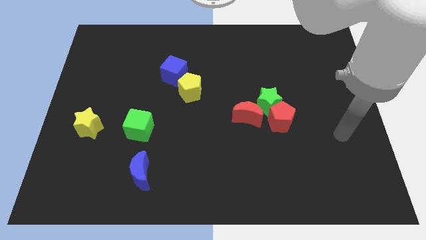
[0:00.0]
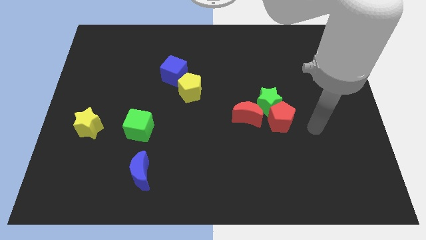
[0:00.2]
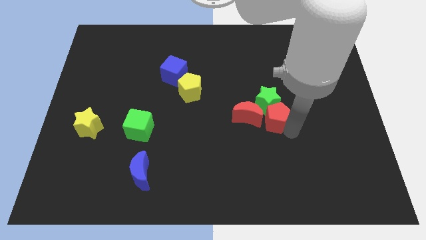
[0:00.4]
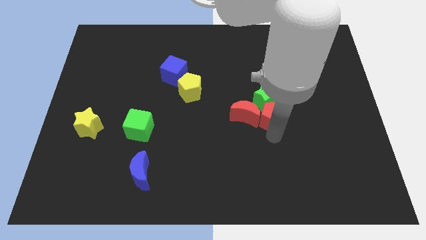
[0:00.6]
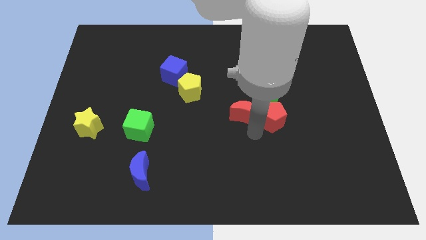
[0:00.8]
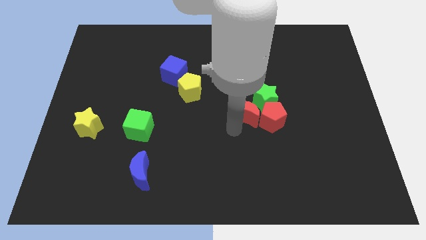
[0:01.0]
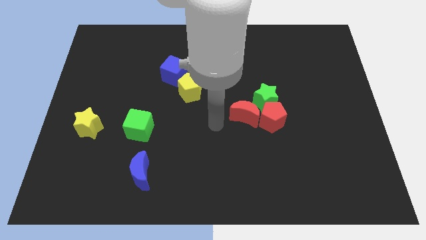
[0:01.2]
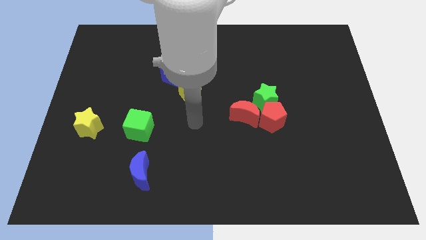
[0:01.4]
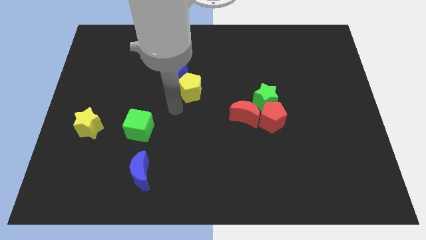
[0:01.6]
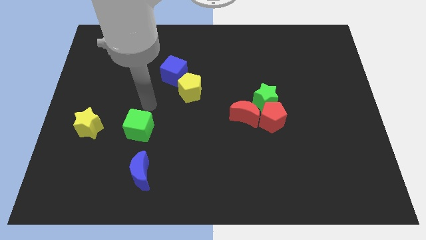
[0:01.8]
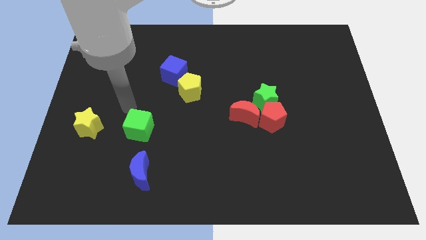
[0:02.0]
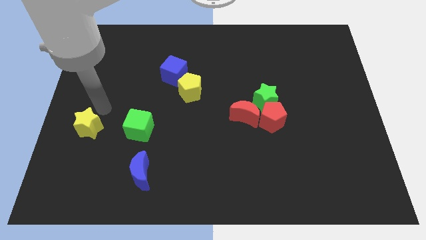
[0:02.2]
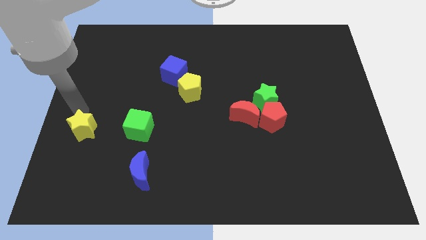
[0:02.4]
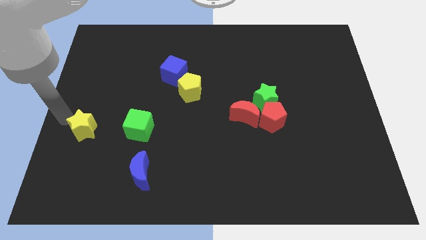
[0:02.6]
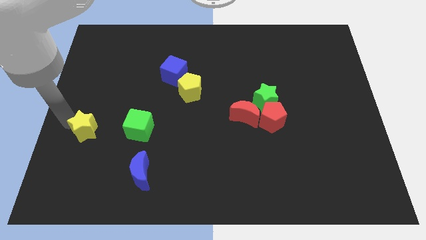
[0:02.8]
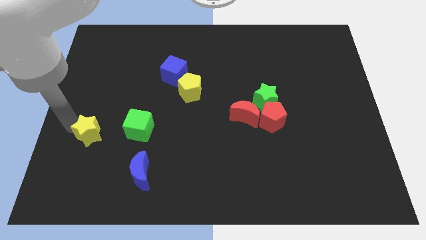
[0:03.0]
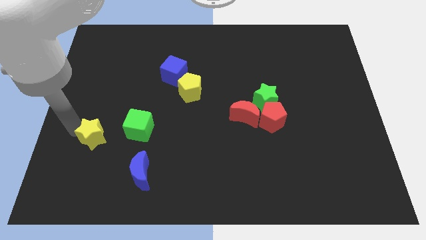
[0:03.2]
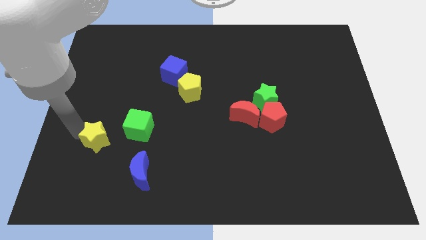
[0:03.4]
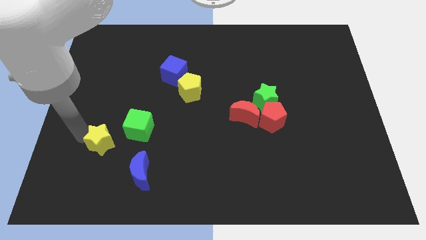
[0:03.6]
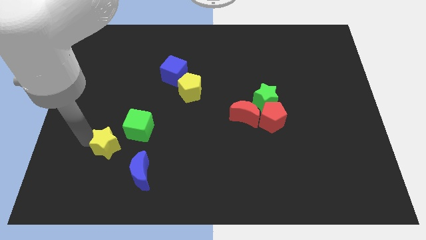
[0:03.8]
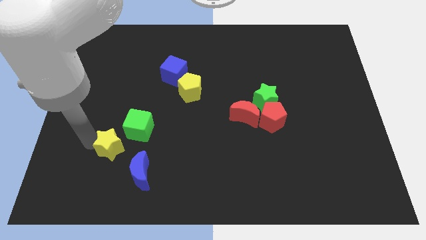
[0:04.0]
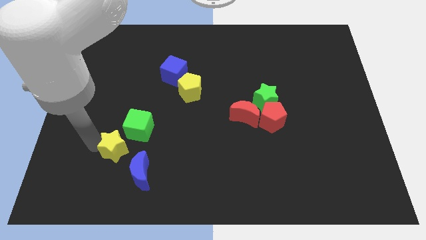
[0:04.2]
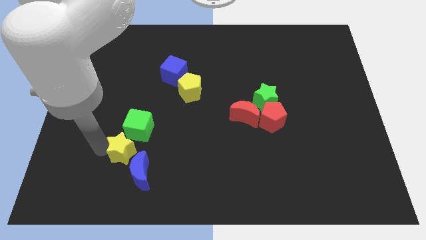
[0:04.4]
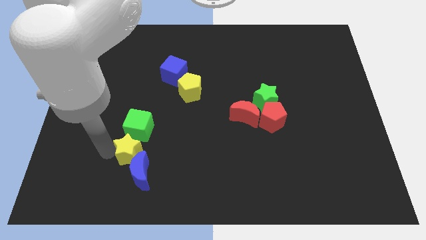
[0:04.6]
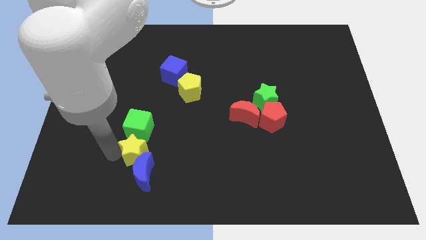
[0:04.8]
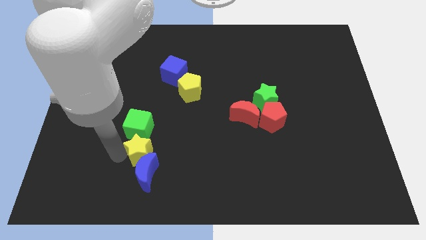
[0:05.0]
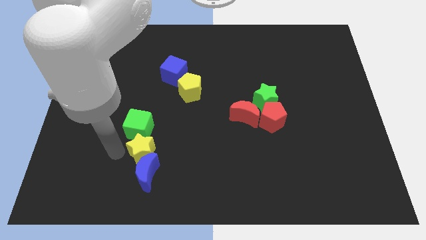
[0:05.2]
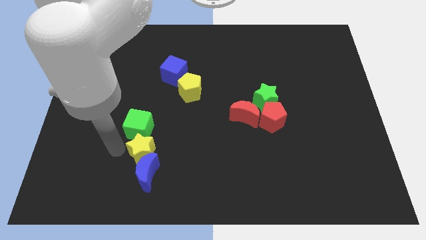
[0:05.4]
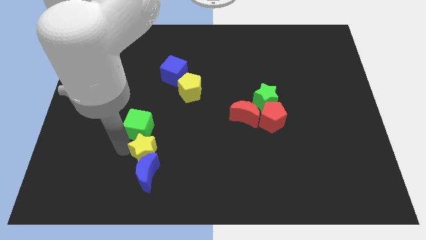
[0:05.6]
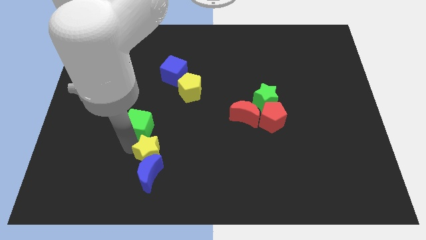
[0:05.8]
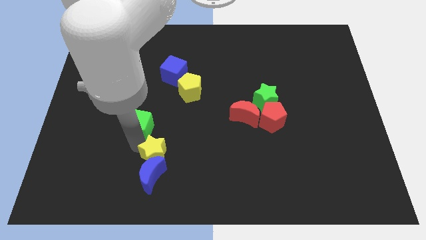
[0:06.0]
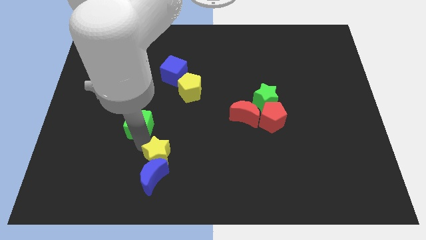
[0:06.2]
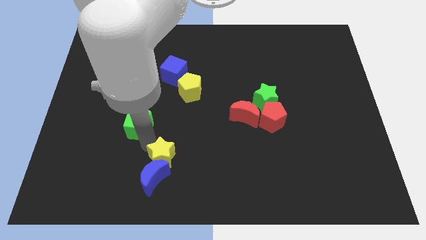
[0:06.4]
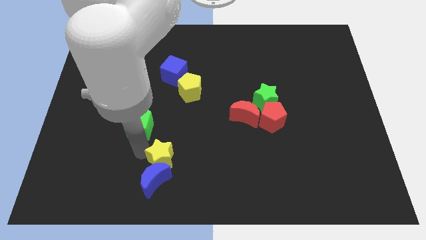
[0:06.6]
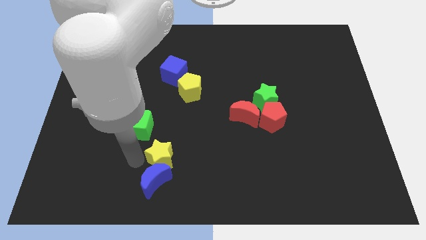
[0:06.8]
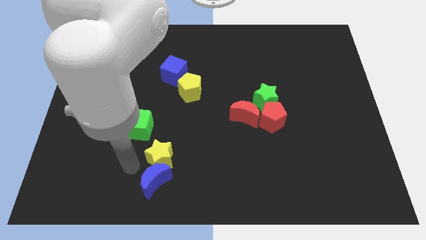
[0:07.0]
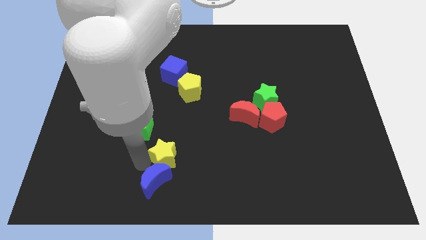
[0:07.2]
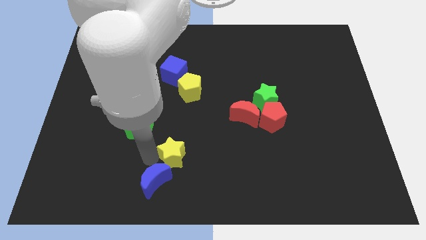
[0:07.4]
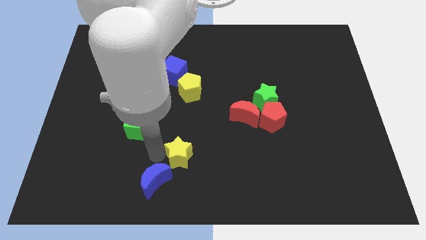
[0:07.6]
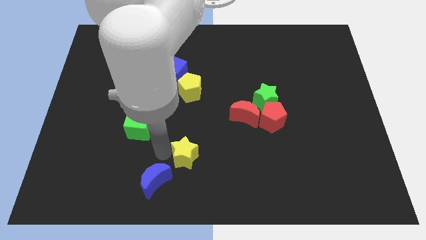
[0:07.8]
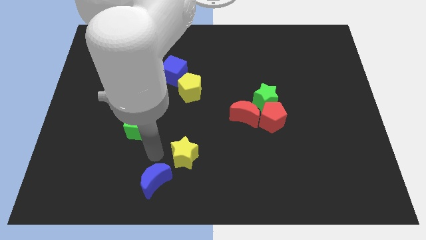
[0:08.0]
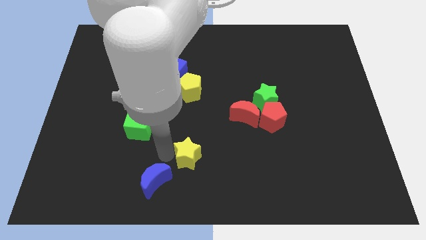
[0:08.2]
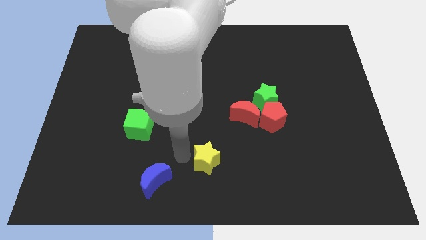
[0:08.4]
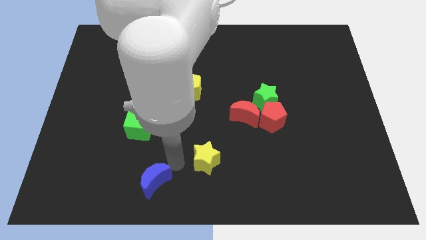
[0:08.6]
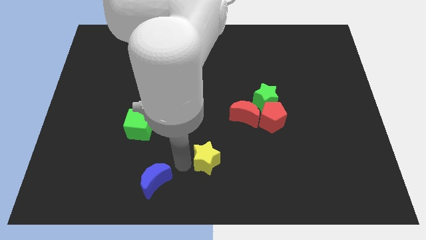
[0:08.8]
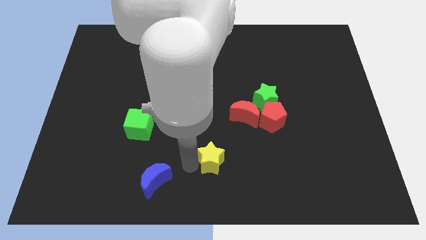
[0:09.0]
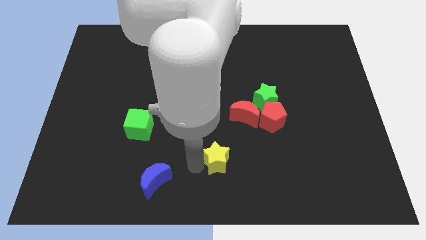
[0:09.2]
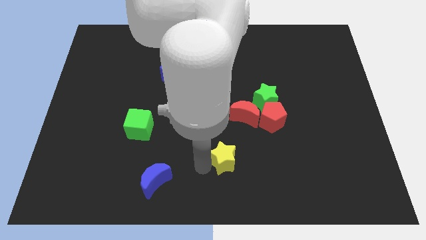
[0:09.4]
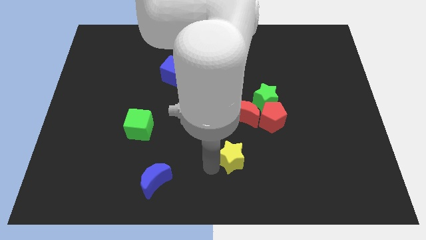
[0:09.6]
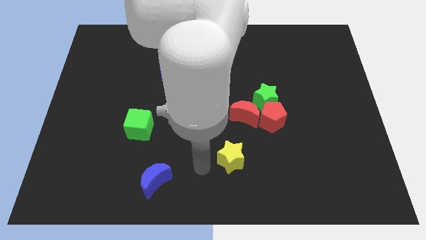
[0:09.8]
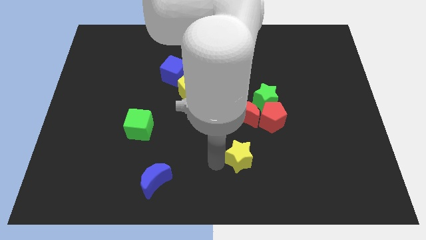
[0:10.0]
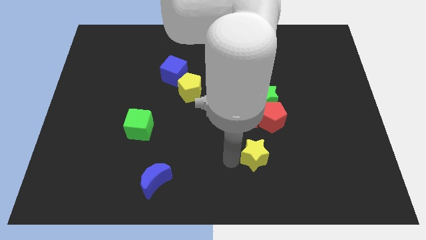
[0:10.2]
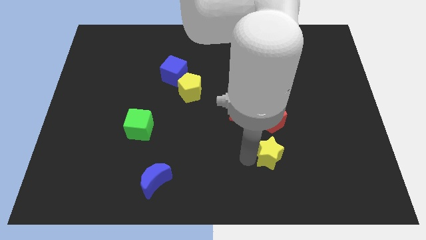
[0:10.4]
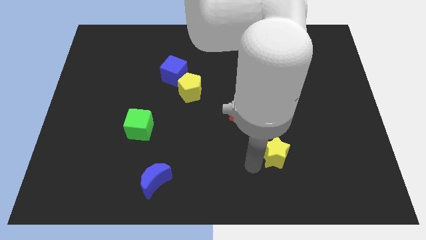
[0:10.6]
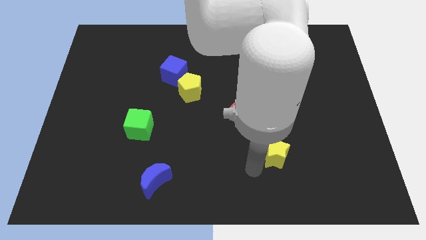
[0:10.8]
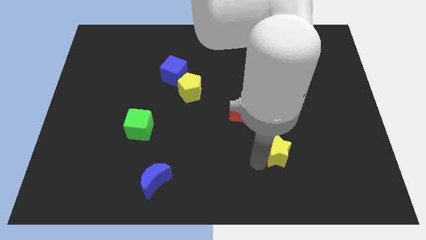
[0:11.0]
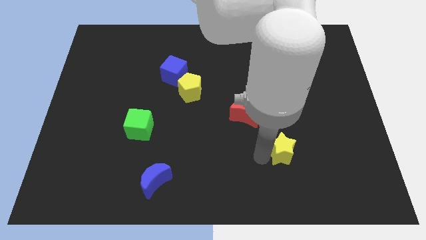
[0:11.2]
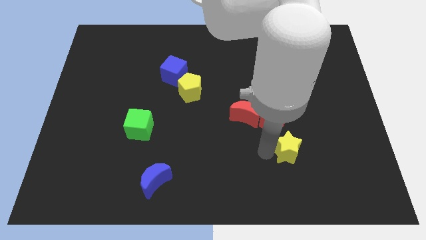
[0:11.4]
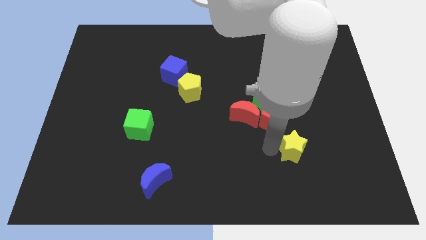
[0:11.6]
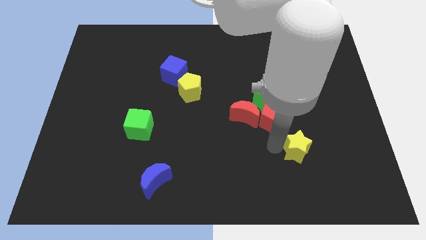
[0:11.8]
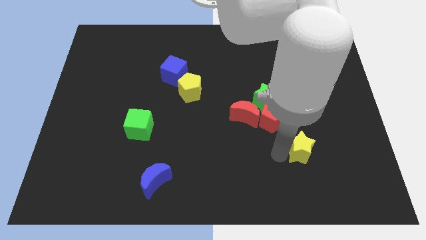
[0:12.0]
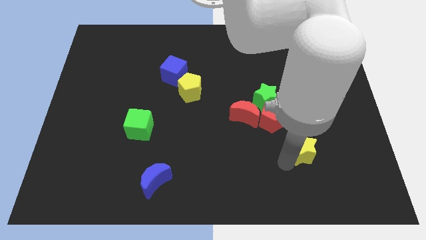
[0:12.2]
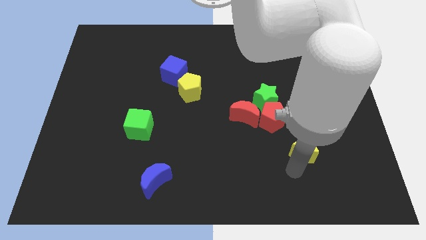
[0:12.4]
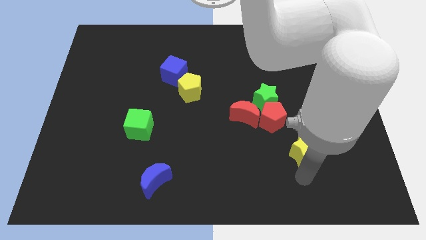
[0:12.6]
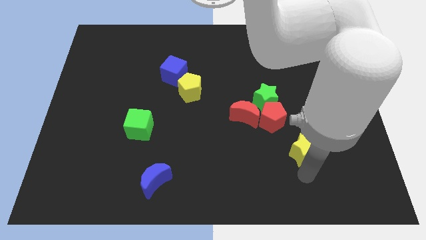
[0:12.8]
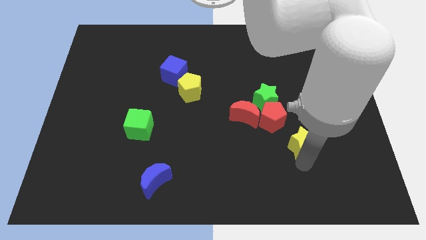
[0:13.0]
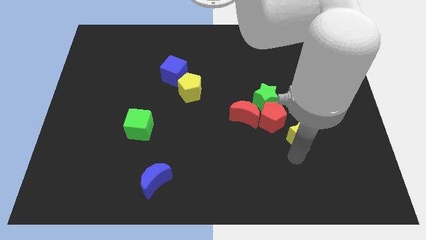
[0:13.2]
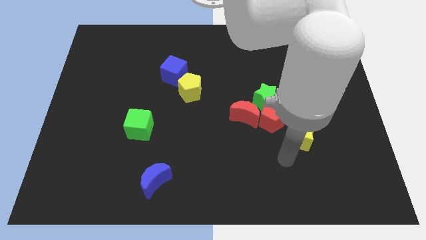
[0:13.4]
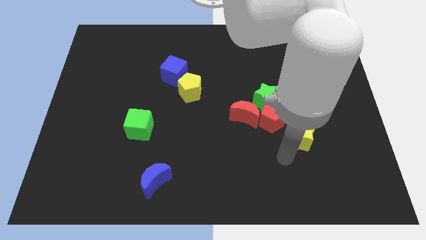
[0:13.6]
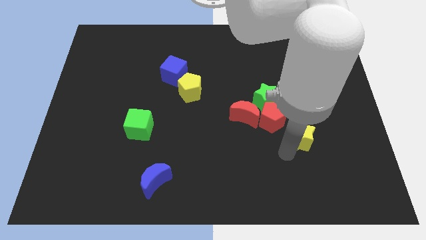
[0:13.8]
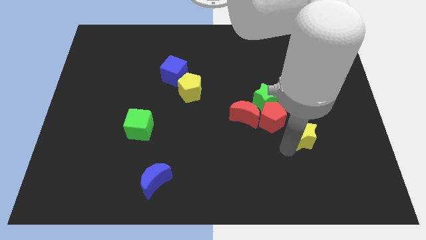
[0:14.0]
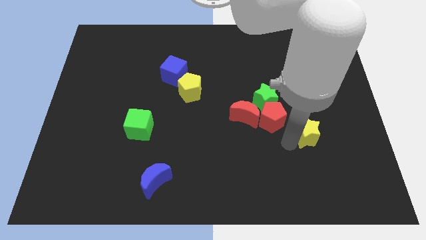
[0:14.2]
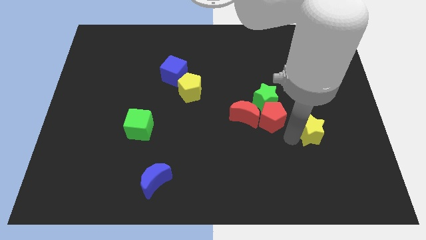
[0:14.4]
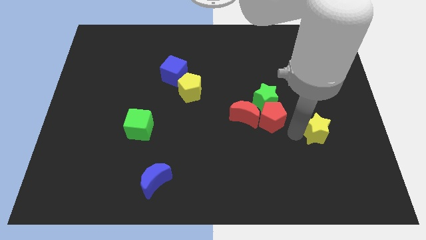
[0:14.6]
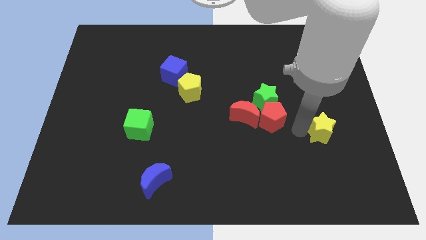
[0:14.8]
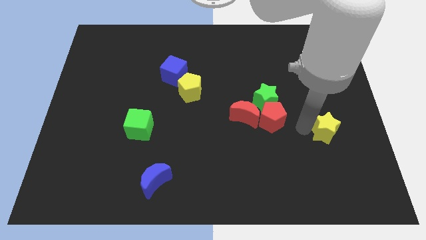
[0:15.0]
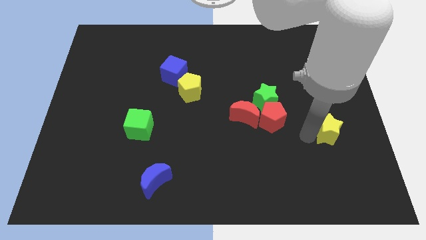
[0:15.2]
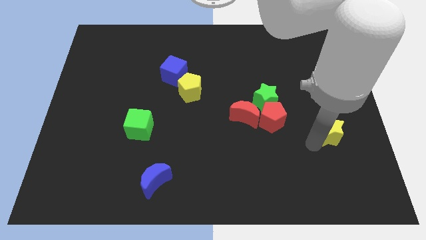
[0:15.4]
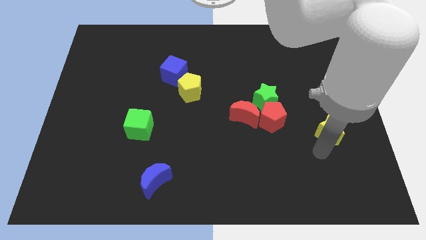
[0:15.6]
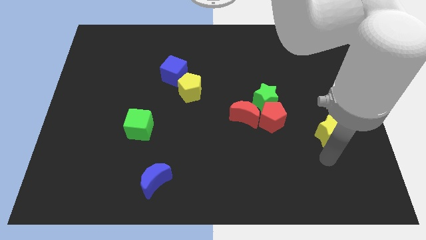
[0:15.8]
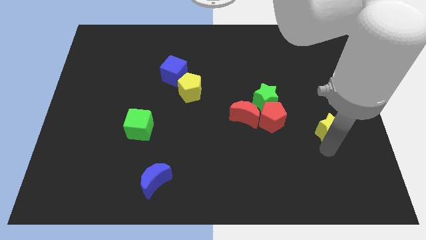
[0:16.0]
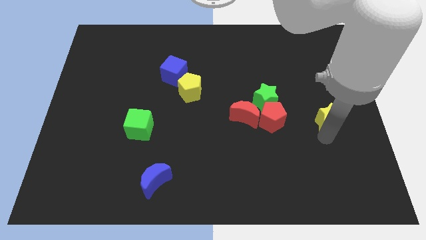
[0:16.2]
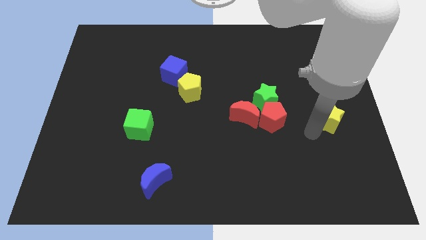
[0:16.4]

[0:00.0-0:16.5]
slide the yellow star to the right side of the board
